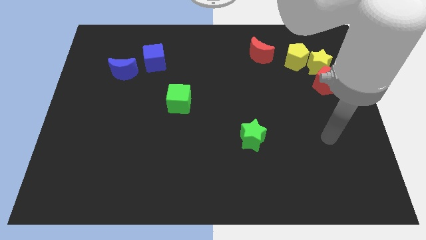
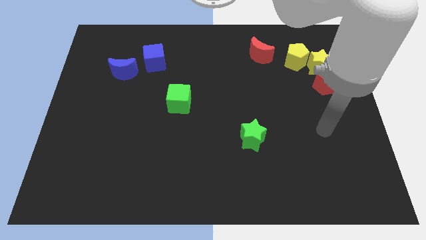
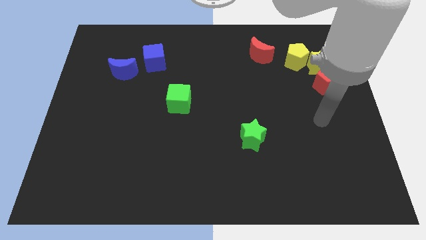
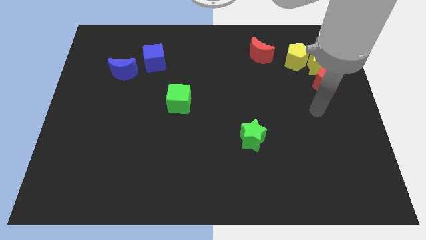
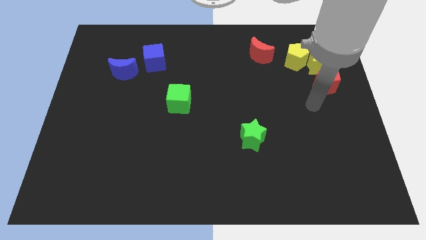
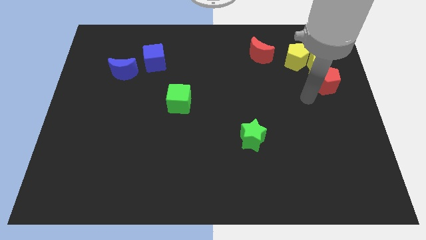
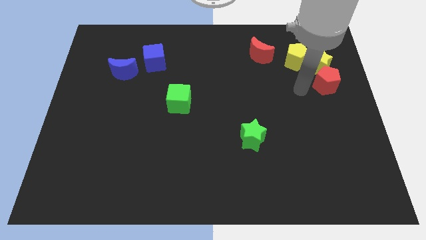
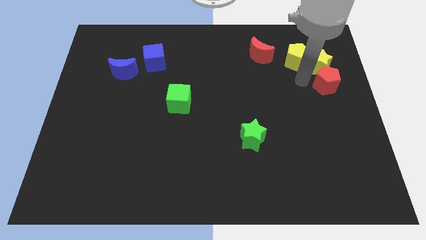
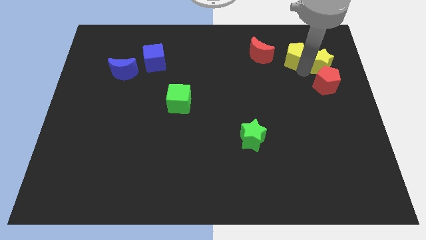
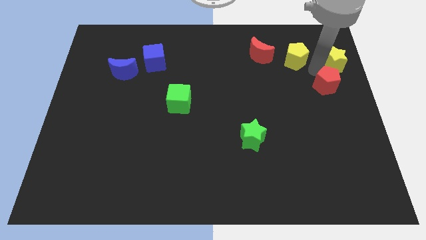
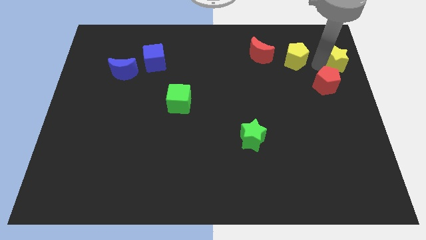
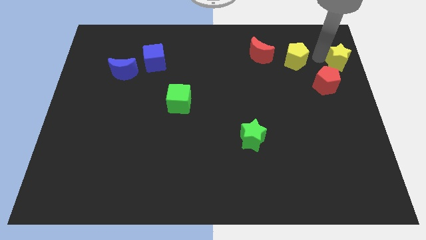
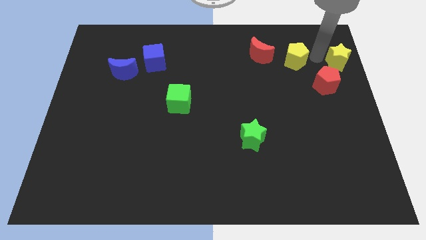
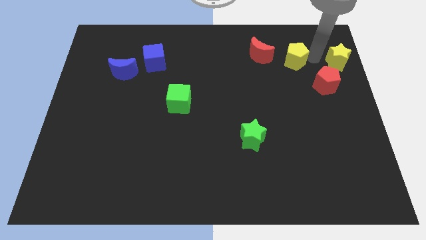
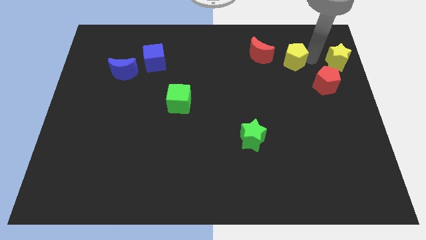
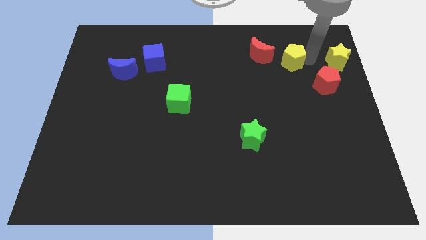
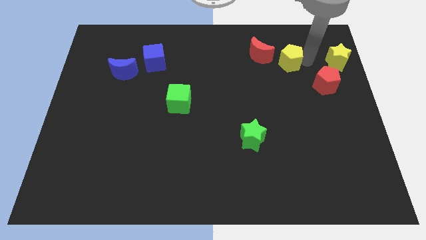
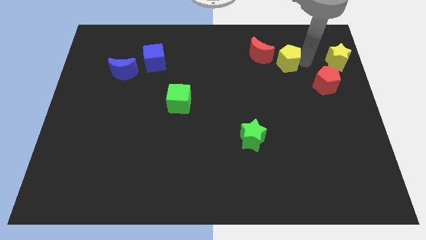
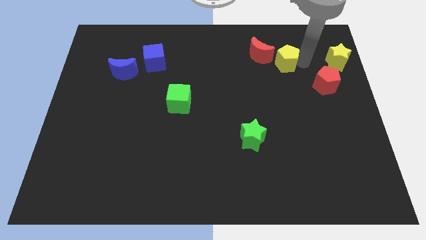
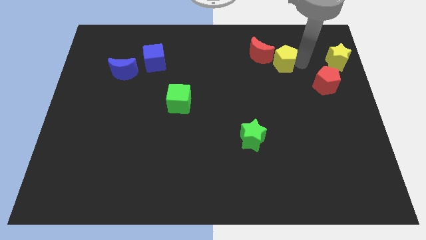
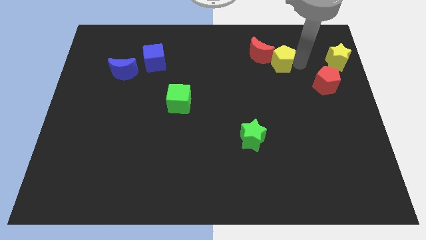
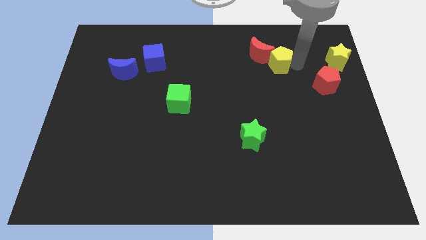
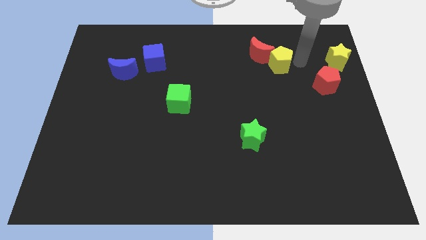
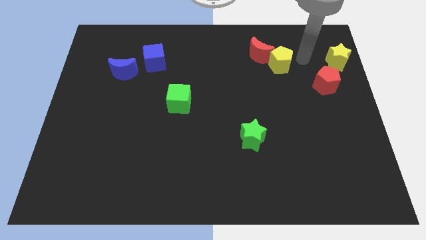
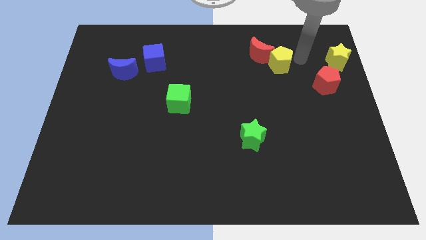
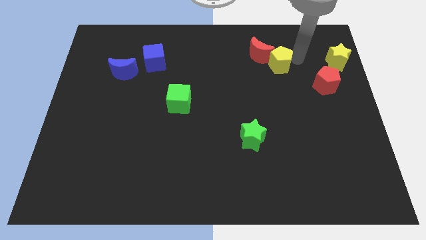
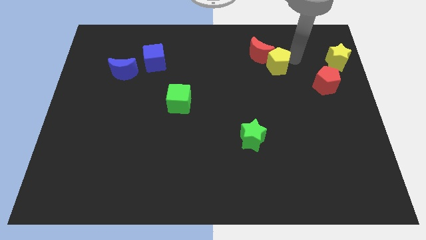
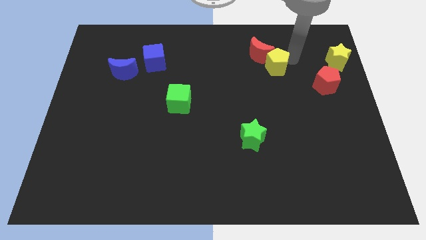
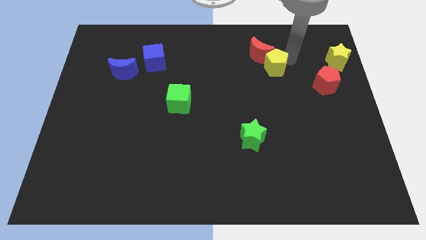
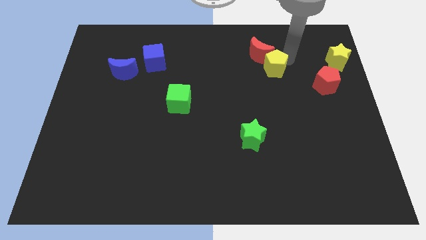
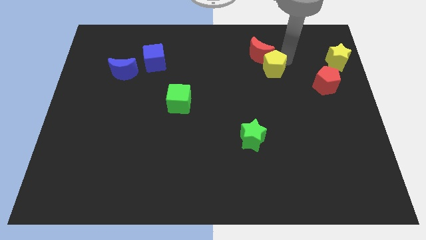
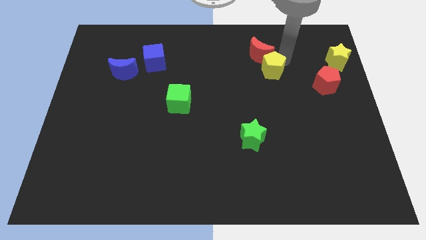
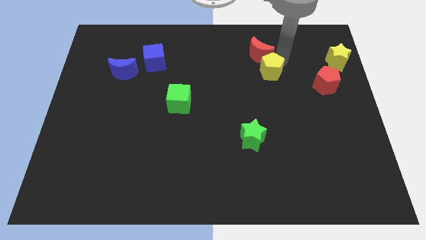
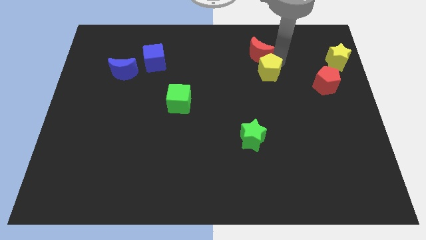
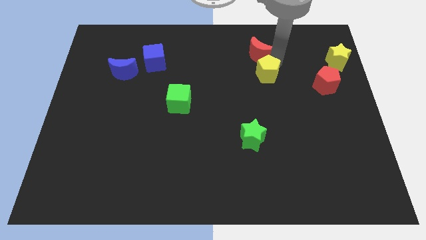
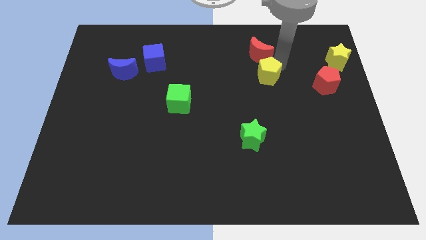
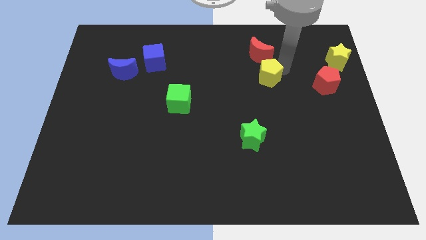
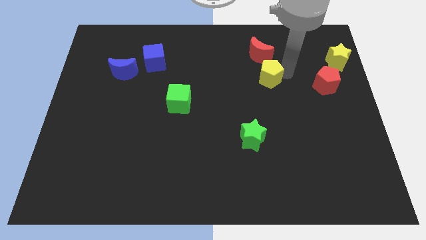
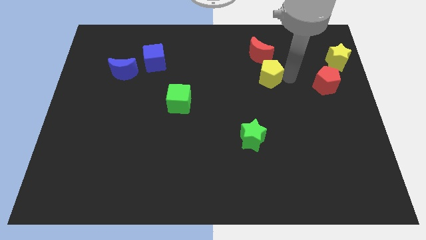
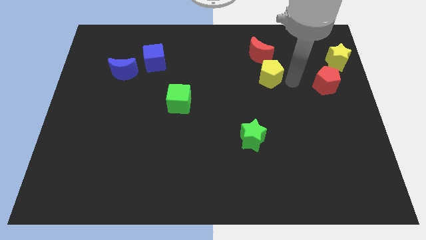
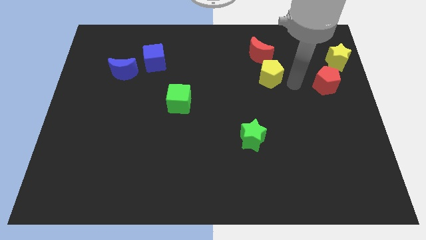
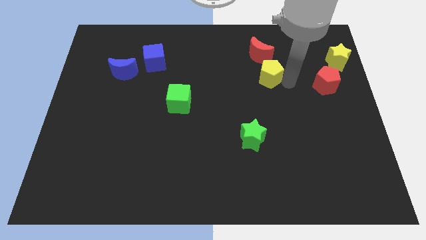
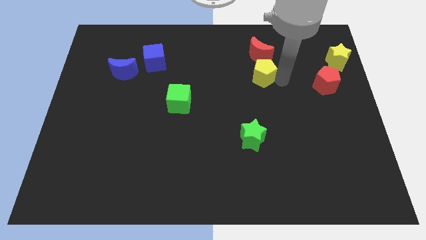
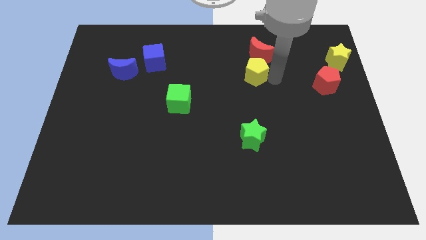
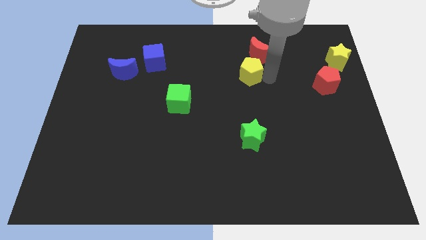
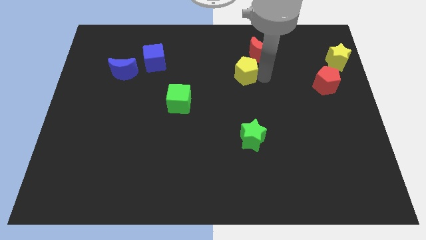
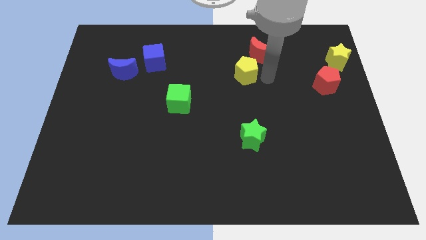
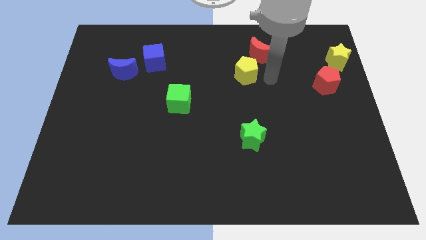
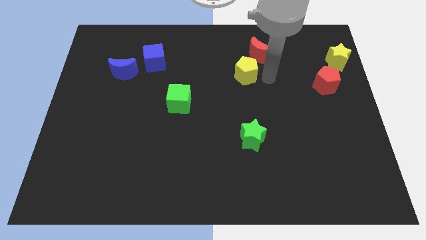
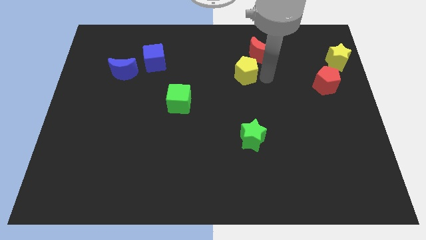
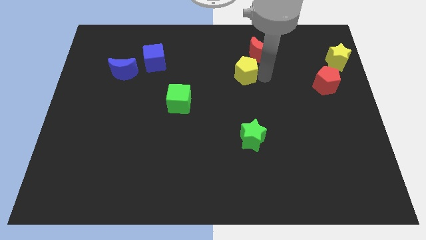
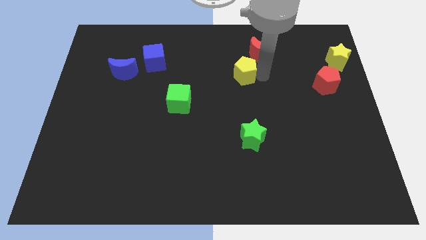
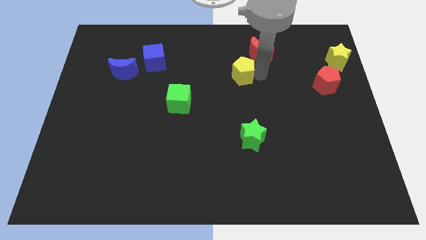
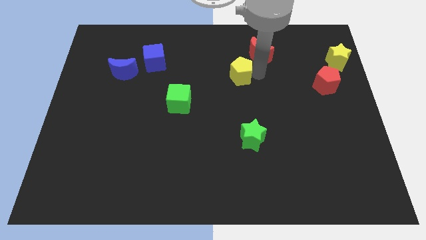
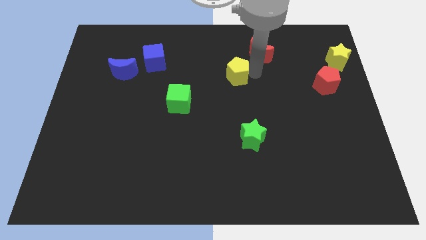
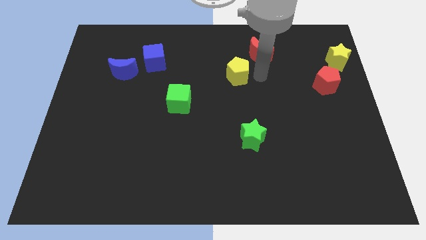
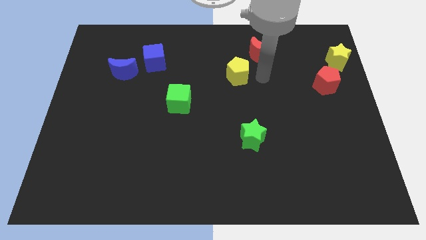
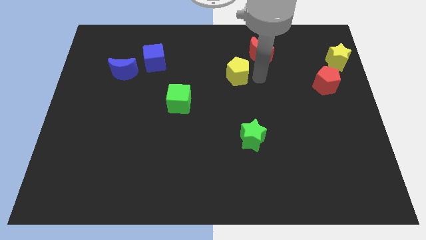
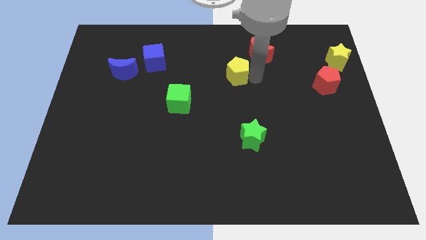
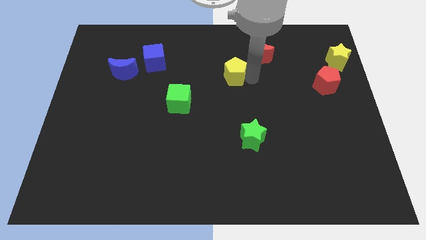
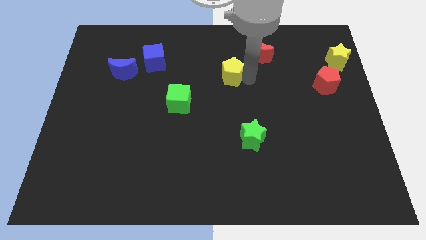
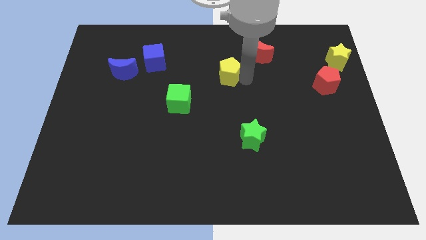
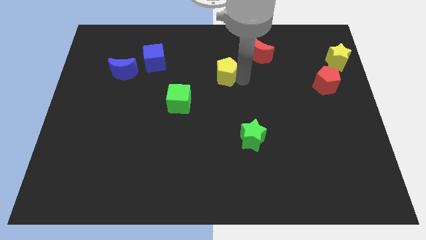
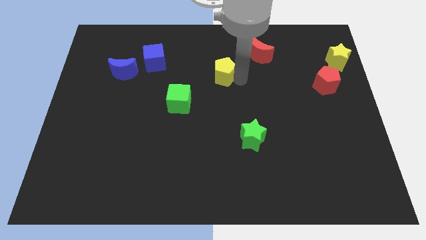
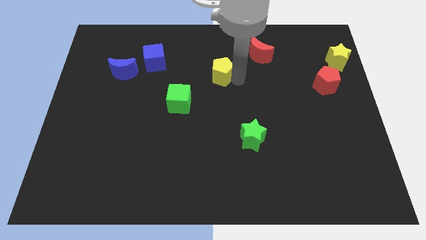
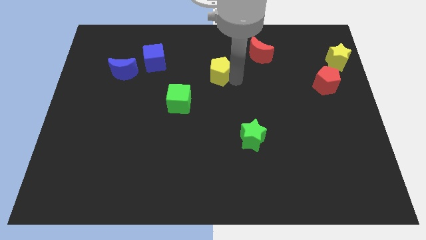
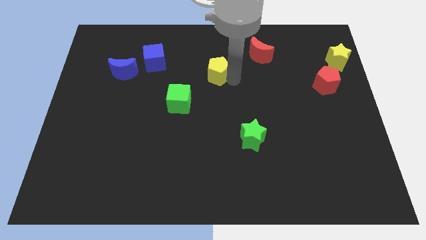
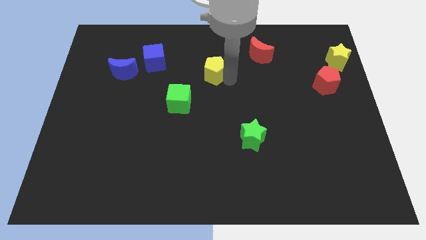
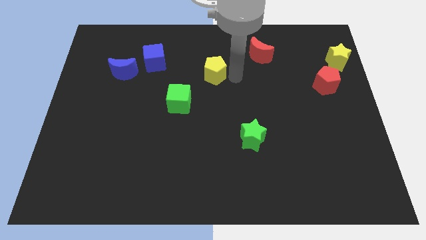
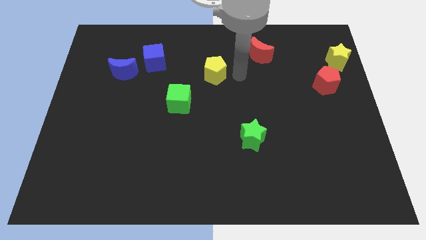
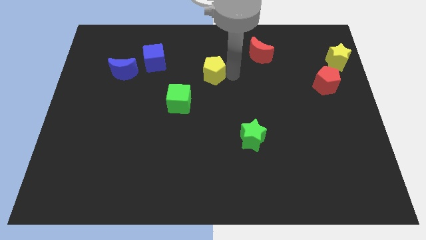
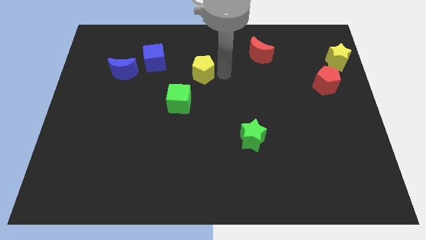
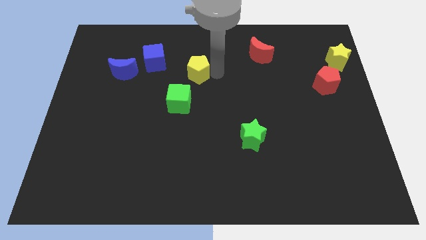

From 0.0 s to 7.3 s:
slide the yellow pentagon to the top of the green cube
